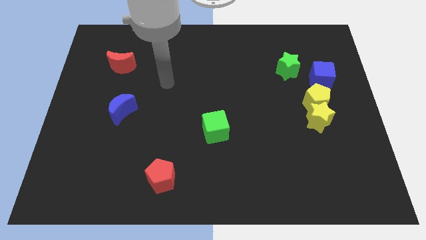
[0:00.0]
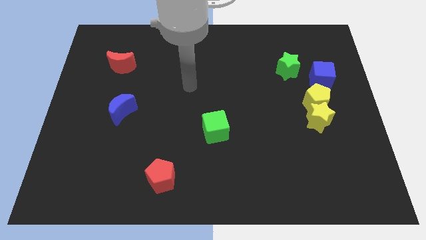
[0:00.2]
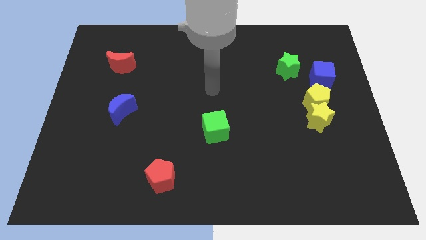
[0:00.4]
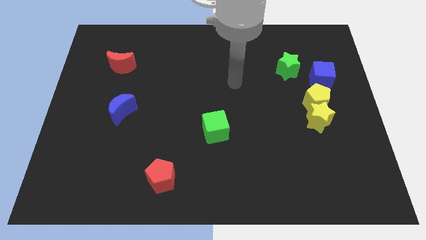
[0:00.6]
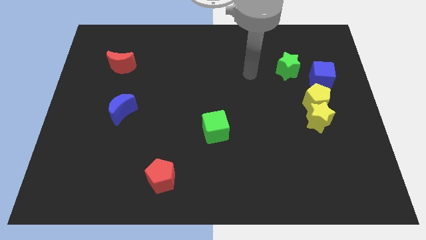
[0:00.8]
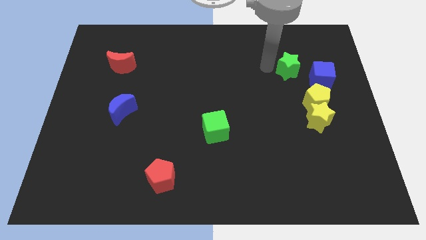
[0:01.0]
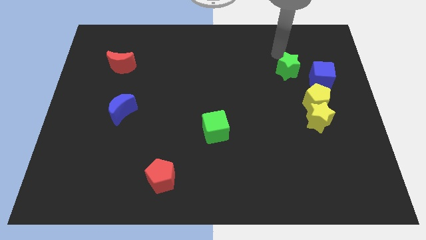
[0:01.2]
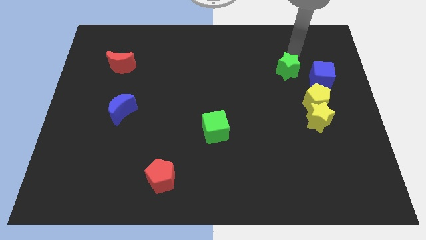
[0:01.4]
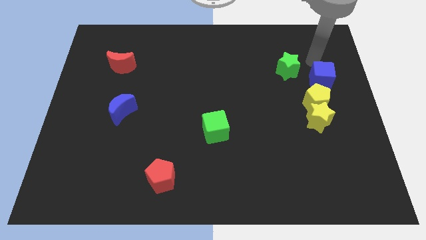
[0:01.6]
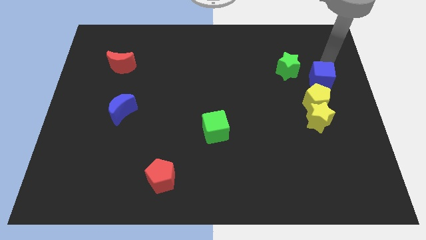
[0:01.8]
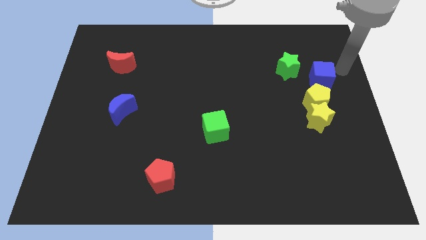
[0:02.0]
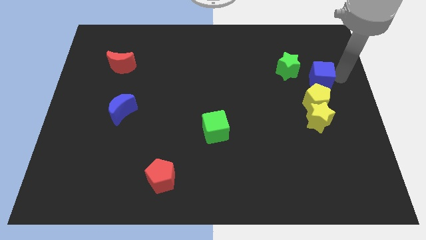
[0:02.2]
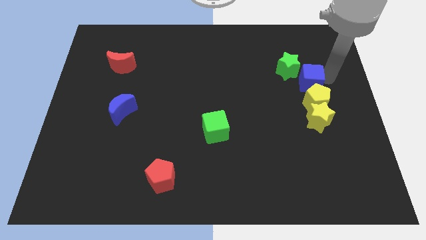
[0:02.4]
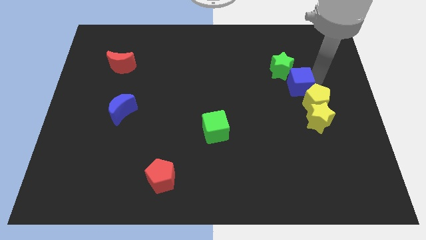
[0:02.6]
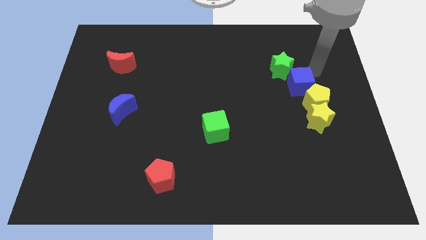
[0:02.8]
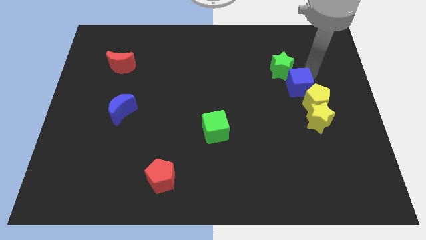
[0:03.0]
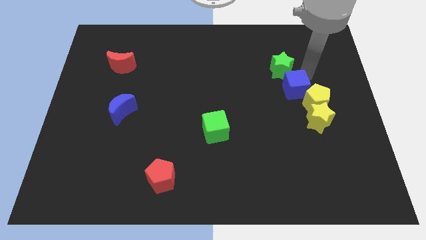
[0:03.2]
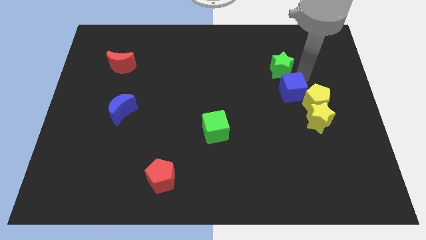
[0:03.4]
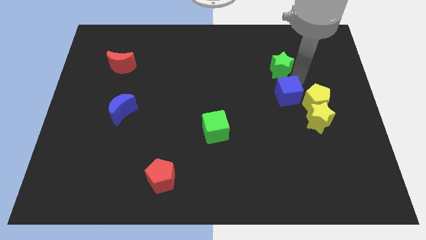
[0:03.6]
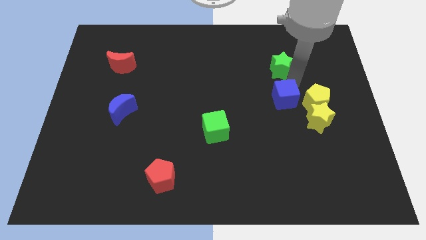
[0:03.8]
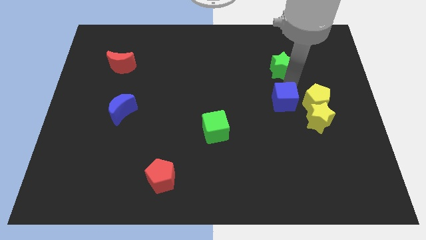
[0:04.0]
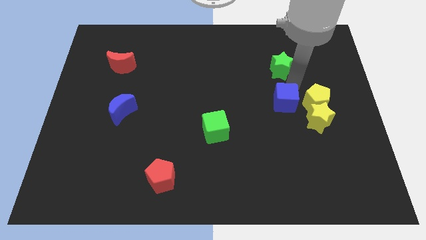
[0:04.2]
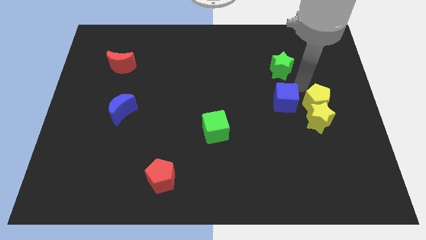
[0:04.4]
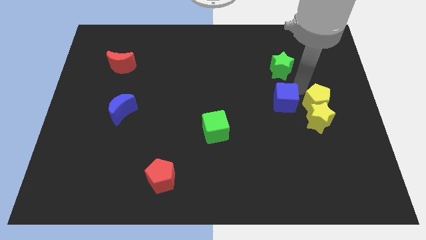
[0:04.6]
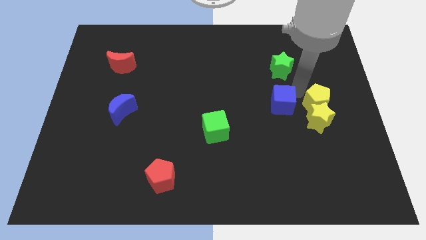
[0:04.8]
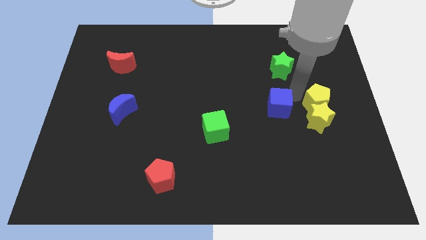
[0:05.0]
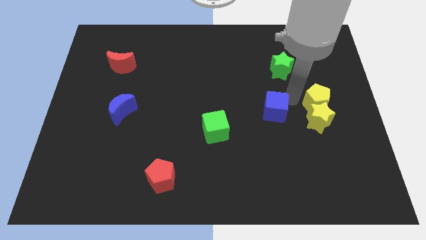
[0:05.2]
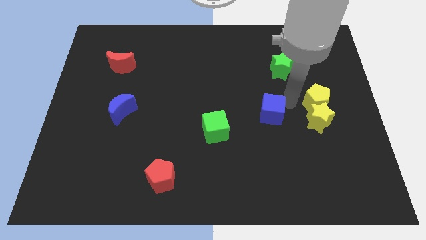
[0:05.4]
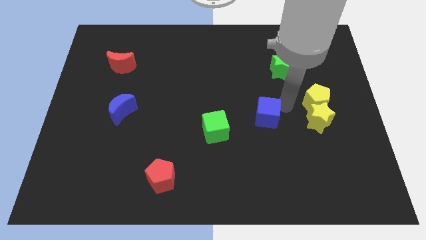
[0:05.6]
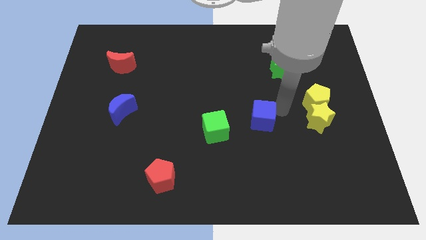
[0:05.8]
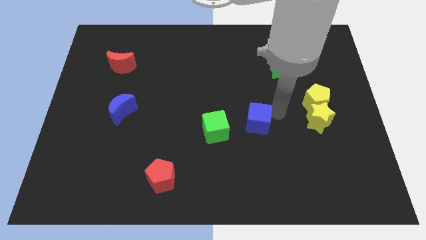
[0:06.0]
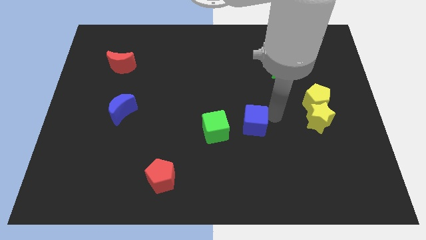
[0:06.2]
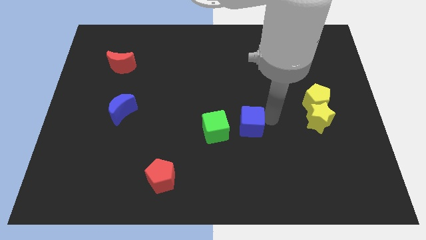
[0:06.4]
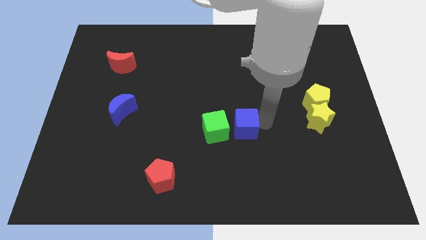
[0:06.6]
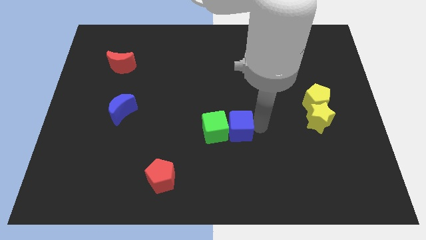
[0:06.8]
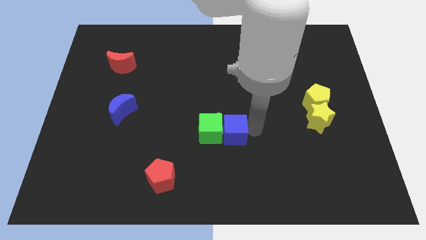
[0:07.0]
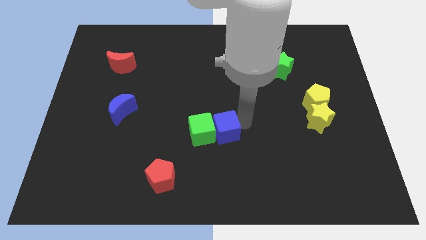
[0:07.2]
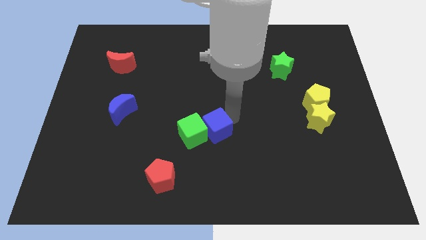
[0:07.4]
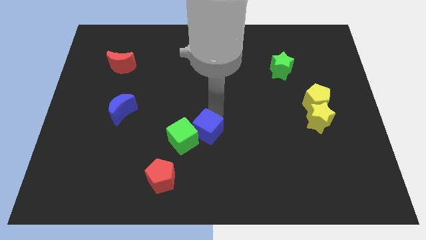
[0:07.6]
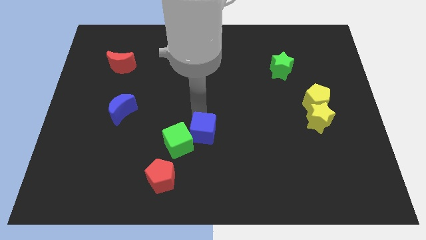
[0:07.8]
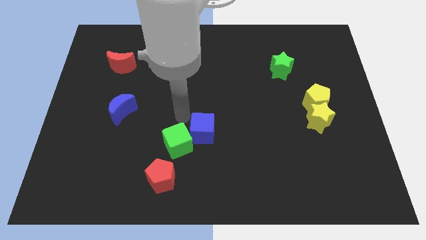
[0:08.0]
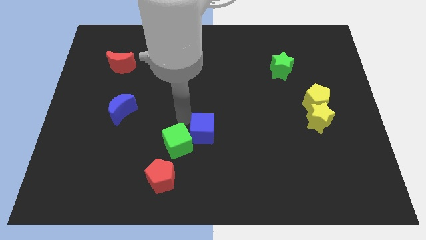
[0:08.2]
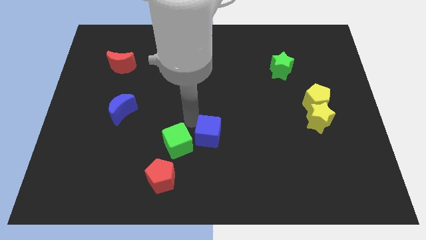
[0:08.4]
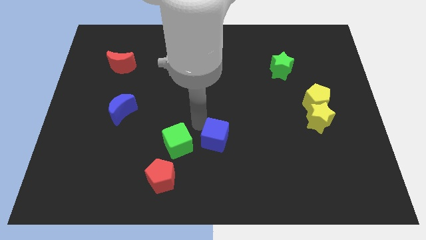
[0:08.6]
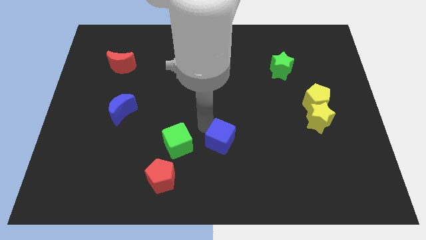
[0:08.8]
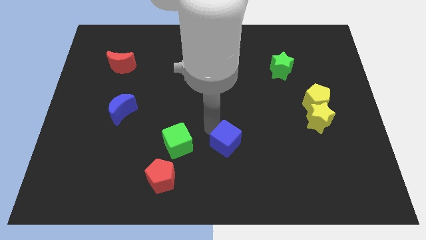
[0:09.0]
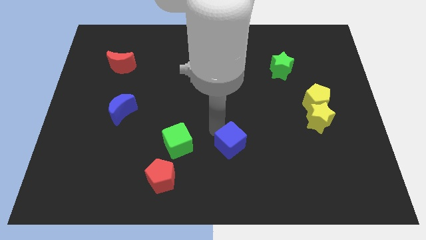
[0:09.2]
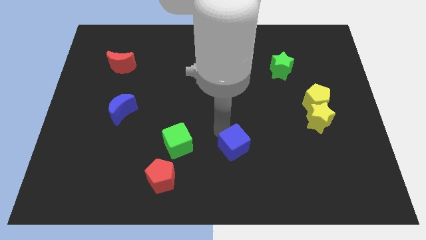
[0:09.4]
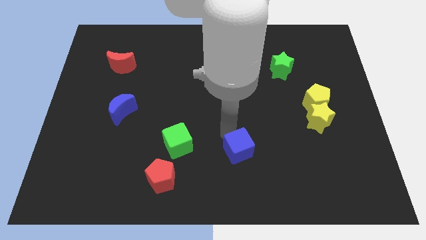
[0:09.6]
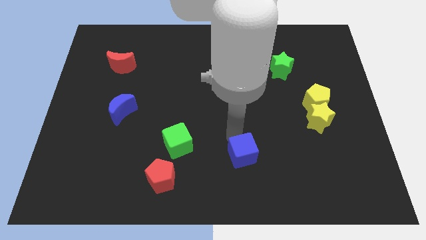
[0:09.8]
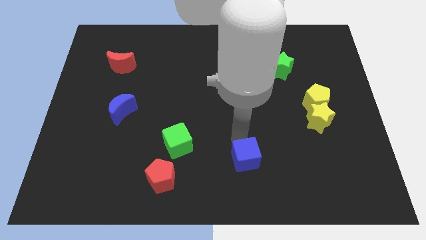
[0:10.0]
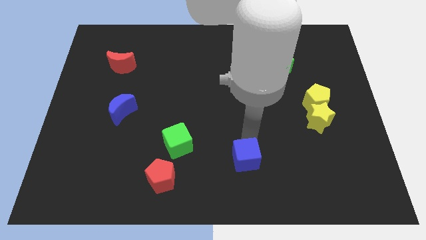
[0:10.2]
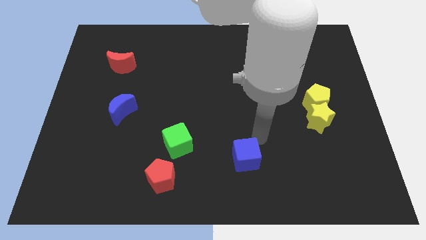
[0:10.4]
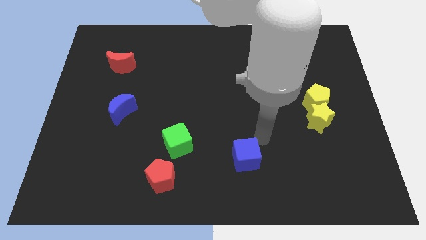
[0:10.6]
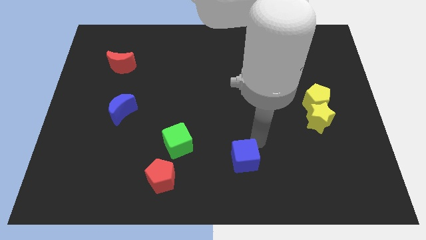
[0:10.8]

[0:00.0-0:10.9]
slide the blue cube to the bottom

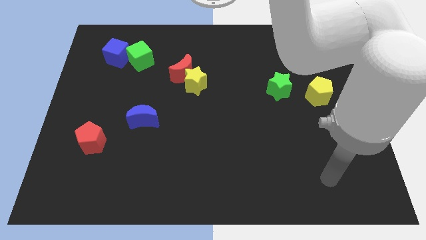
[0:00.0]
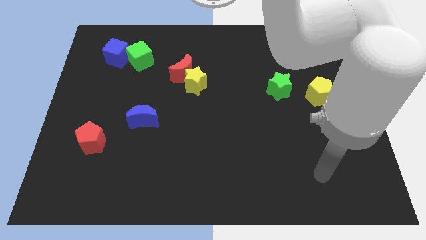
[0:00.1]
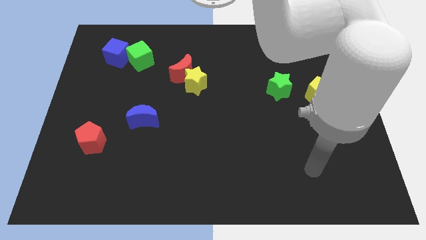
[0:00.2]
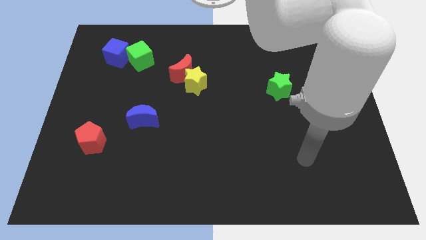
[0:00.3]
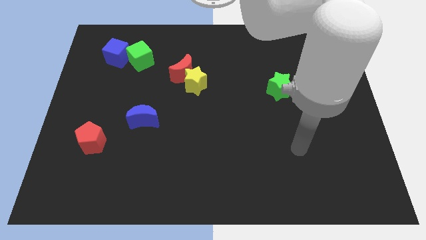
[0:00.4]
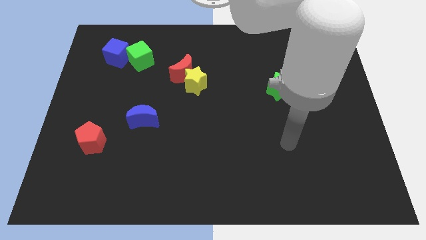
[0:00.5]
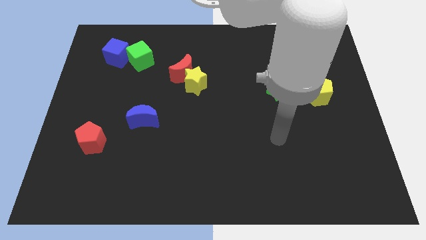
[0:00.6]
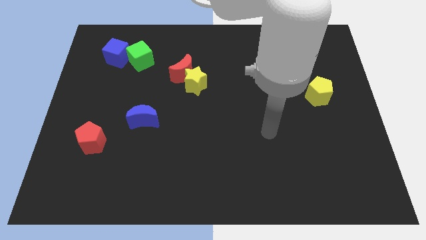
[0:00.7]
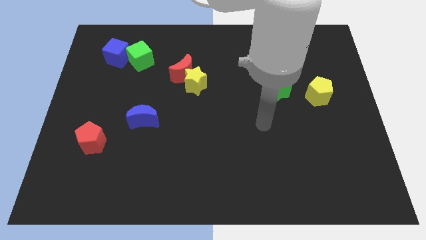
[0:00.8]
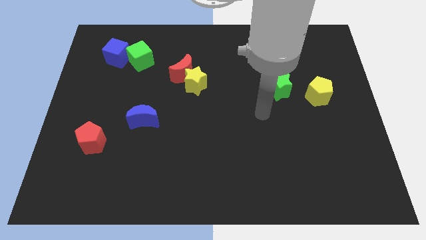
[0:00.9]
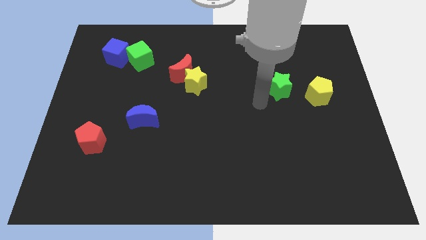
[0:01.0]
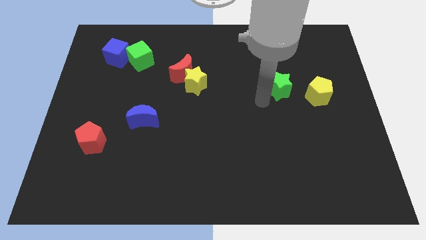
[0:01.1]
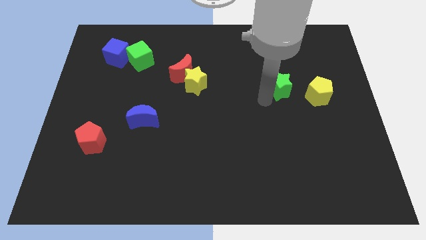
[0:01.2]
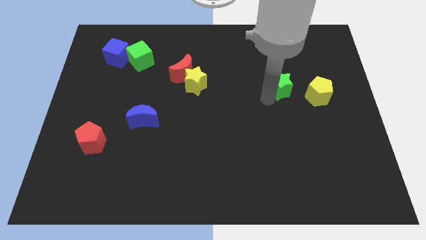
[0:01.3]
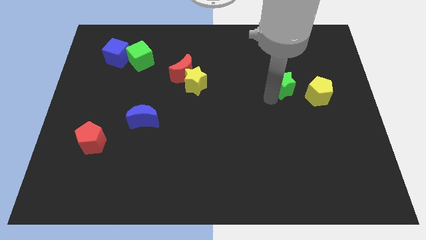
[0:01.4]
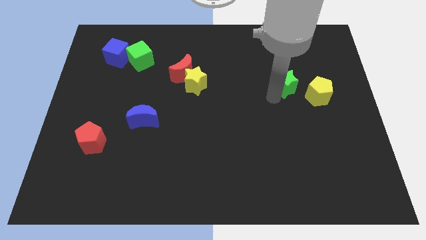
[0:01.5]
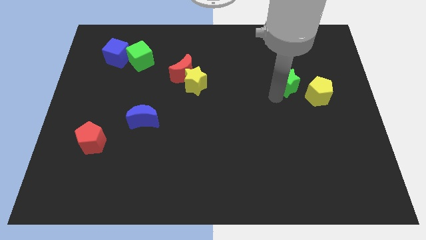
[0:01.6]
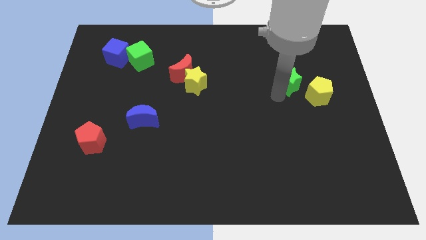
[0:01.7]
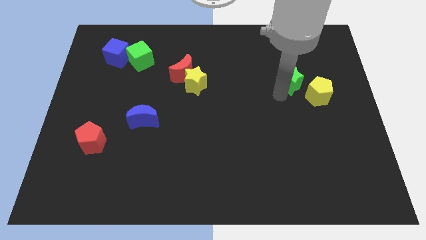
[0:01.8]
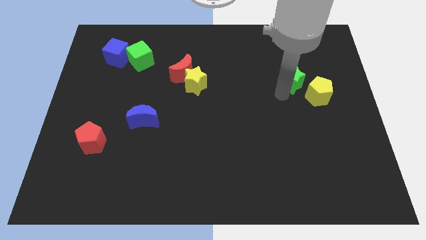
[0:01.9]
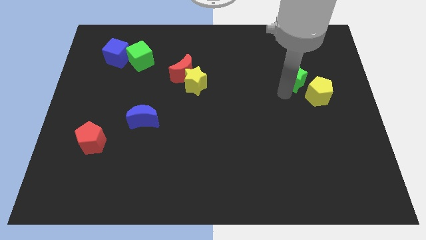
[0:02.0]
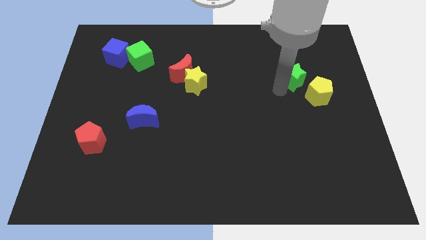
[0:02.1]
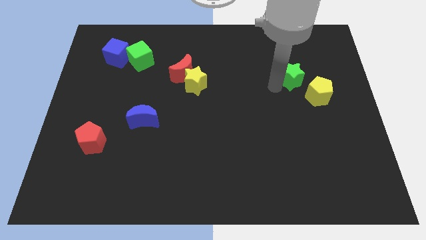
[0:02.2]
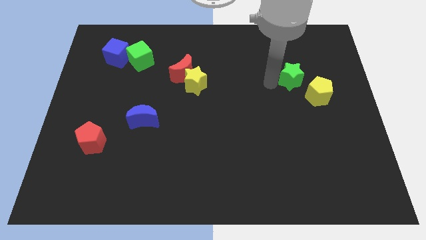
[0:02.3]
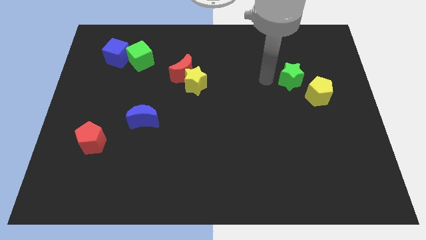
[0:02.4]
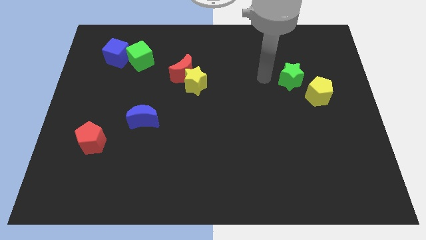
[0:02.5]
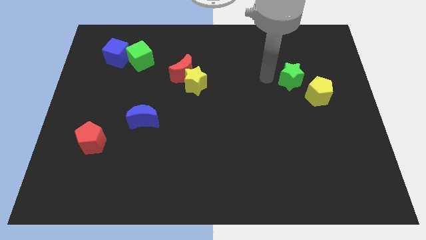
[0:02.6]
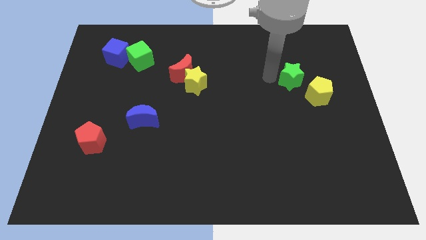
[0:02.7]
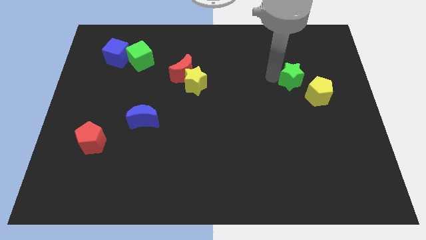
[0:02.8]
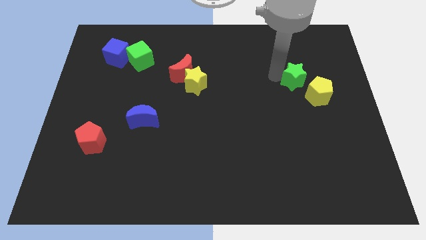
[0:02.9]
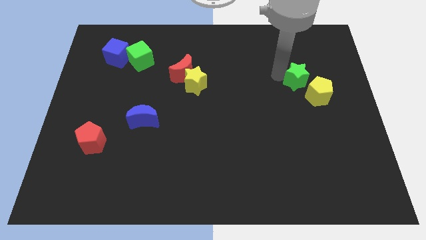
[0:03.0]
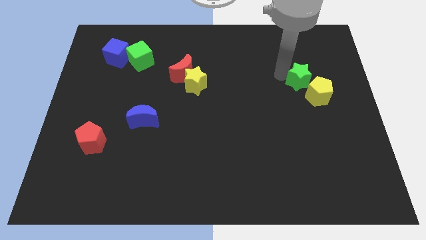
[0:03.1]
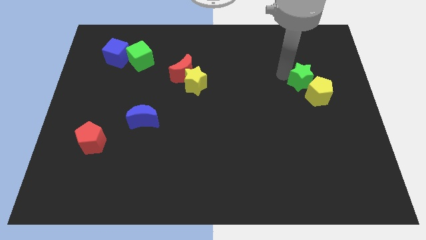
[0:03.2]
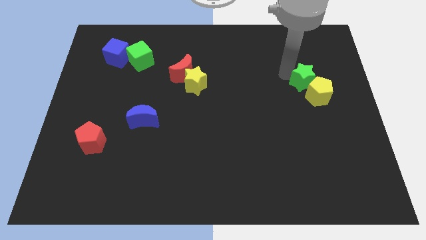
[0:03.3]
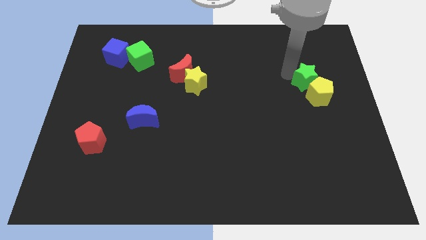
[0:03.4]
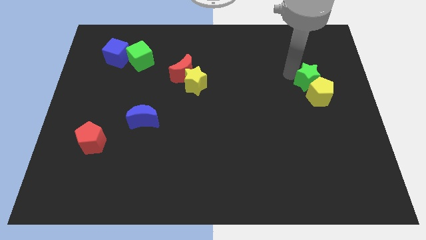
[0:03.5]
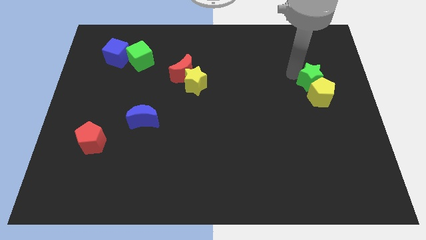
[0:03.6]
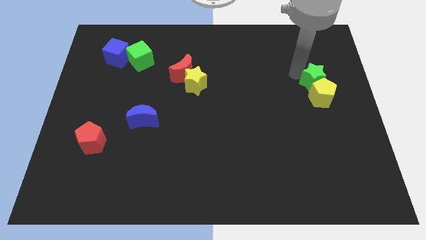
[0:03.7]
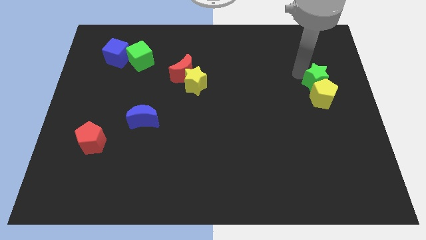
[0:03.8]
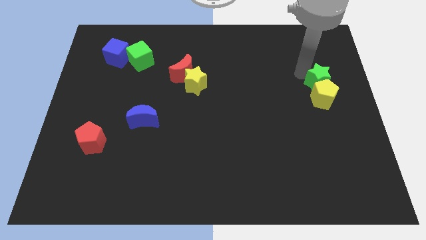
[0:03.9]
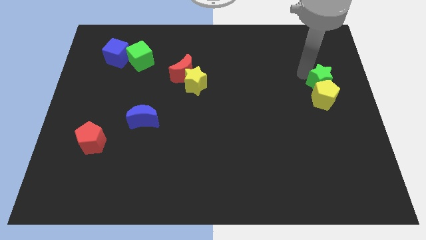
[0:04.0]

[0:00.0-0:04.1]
push the green star to the right side
